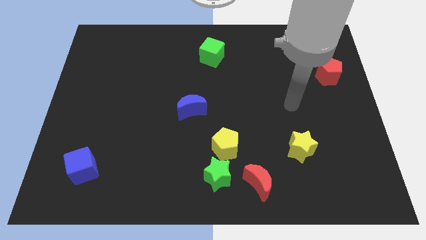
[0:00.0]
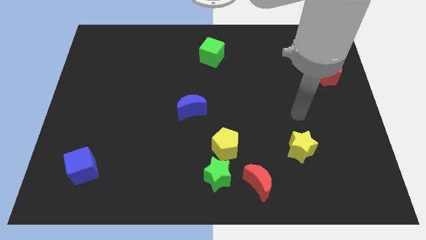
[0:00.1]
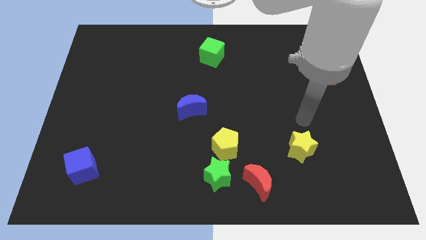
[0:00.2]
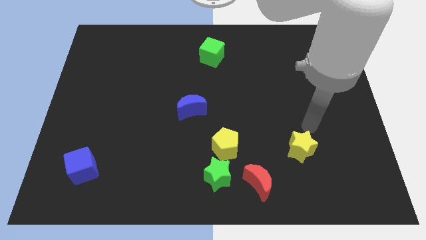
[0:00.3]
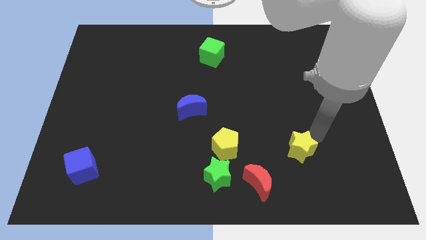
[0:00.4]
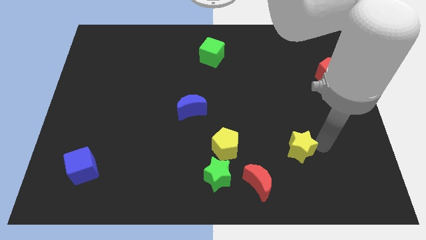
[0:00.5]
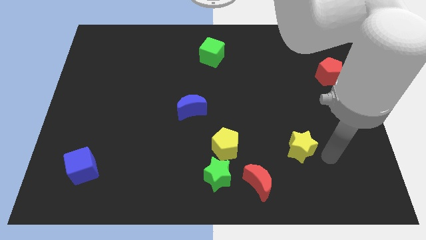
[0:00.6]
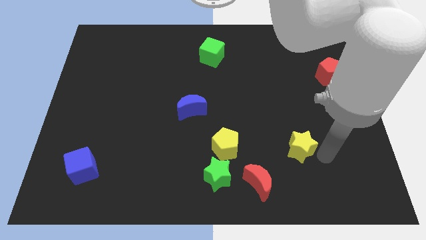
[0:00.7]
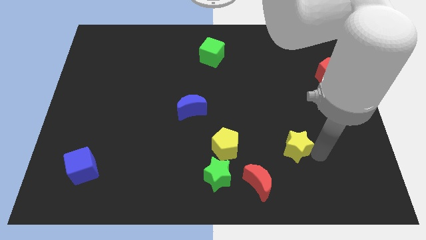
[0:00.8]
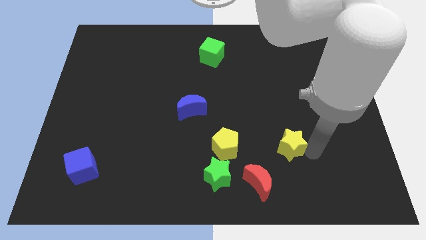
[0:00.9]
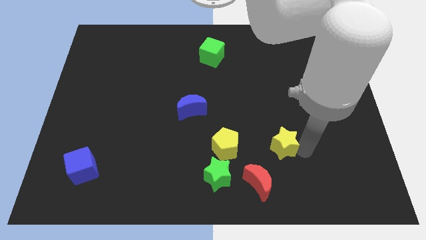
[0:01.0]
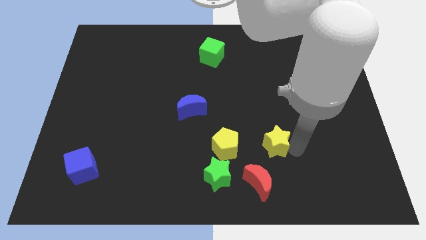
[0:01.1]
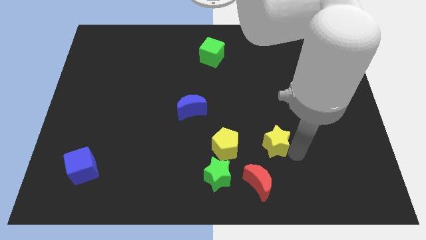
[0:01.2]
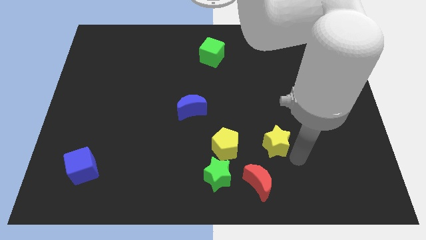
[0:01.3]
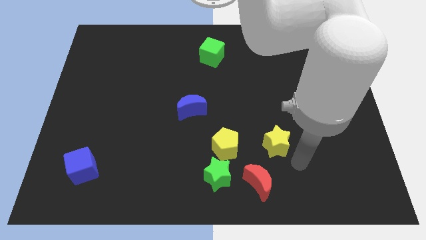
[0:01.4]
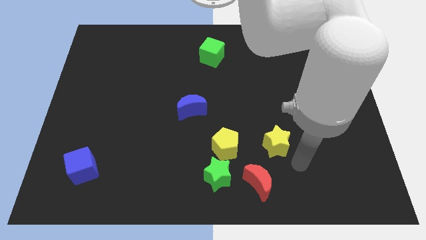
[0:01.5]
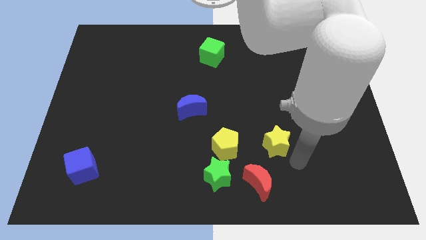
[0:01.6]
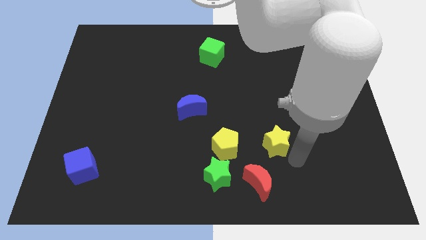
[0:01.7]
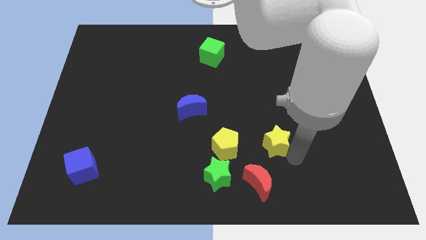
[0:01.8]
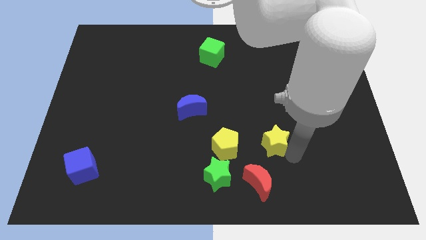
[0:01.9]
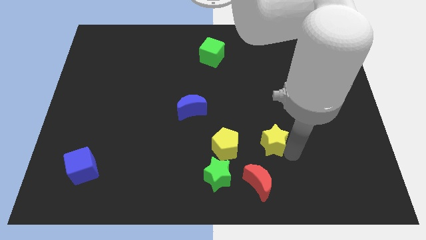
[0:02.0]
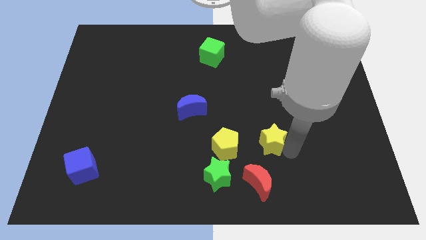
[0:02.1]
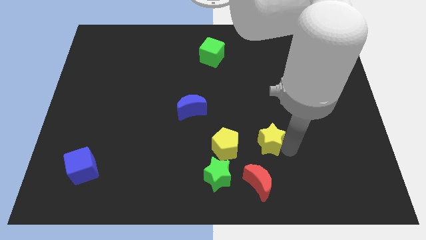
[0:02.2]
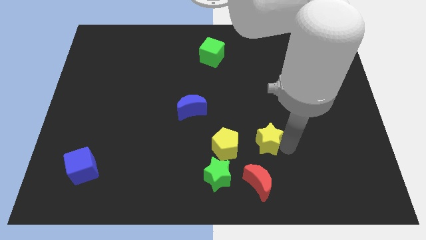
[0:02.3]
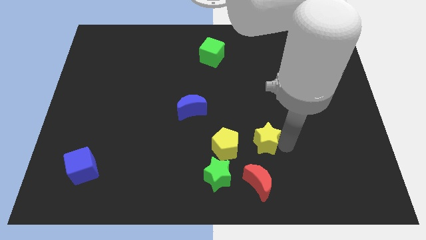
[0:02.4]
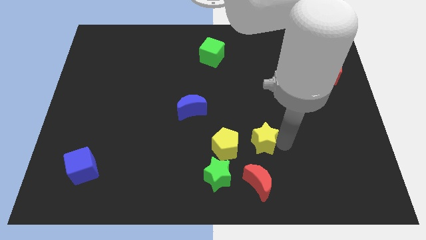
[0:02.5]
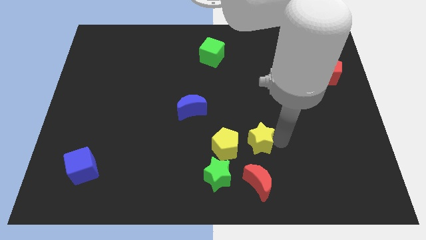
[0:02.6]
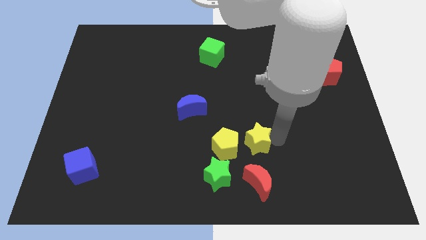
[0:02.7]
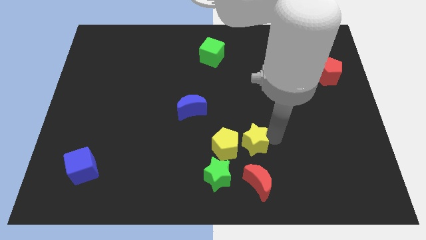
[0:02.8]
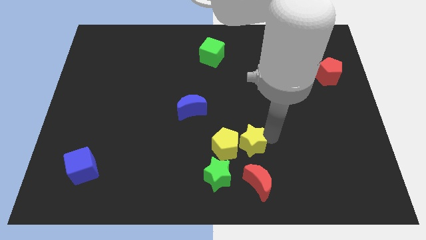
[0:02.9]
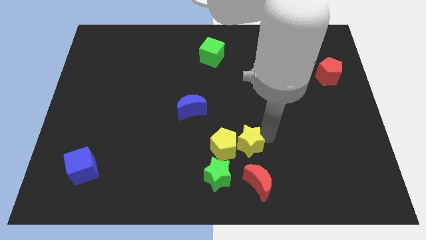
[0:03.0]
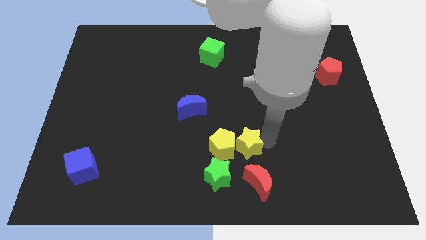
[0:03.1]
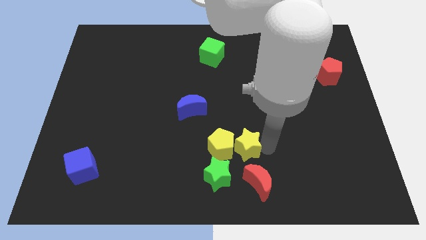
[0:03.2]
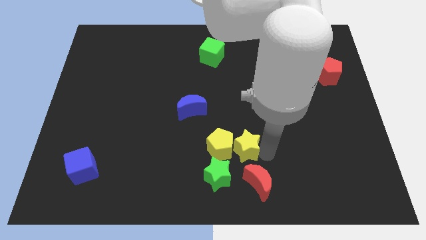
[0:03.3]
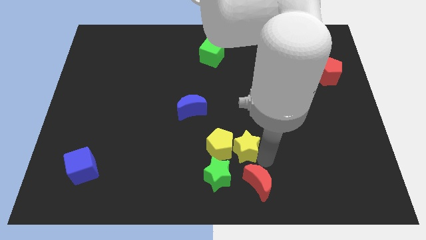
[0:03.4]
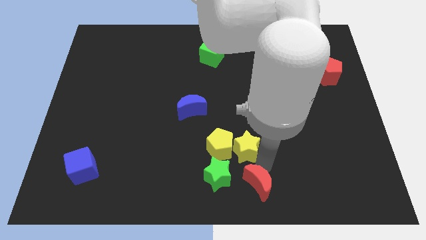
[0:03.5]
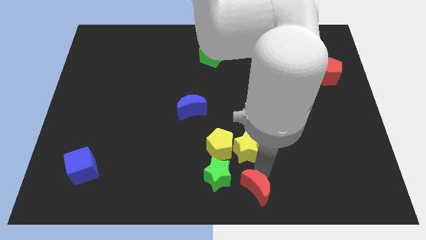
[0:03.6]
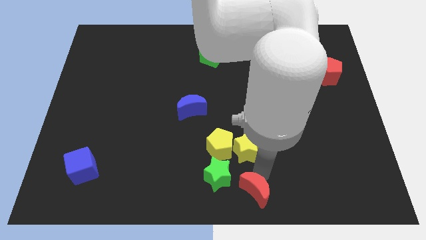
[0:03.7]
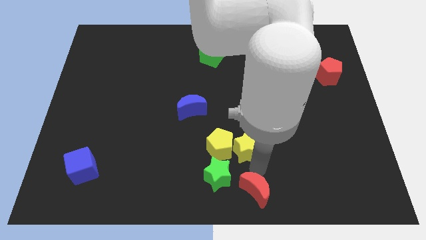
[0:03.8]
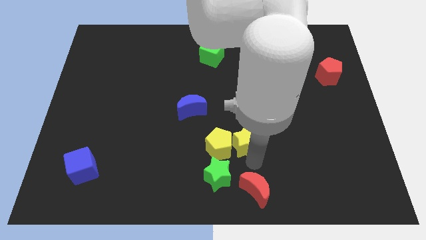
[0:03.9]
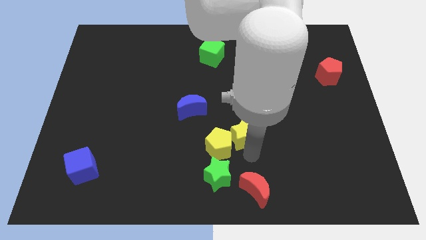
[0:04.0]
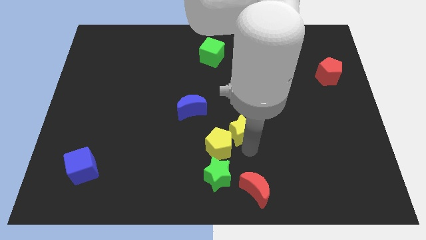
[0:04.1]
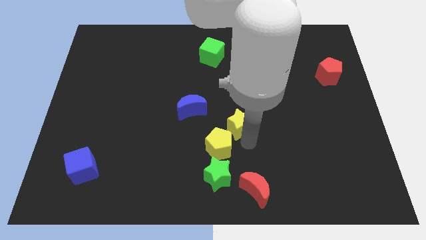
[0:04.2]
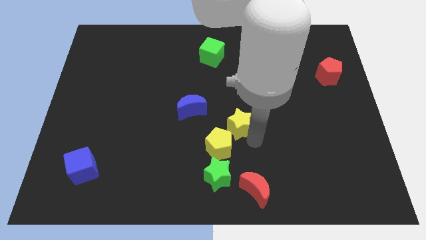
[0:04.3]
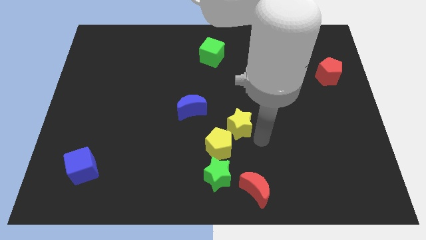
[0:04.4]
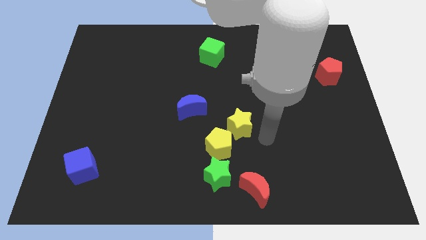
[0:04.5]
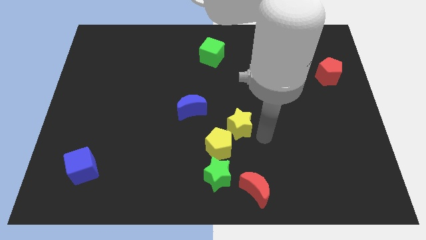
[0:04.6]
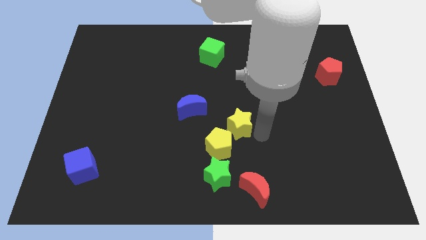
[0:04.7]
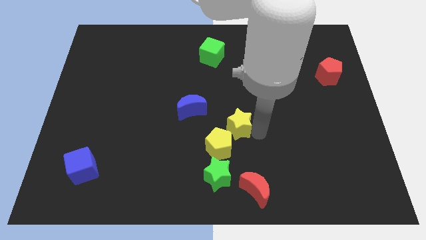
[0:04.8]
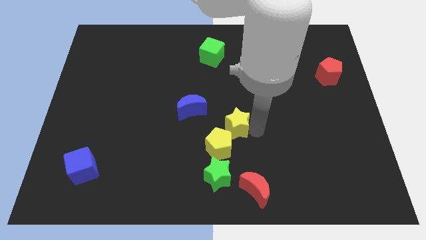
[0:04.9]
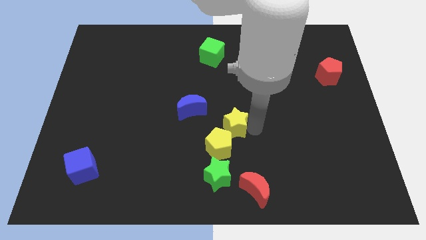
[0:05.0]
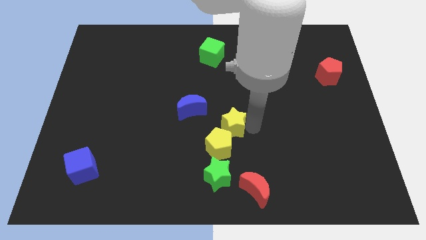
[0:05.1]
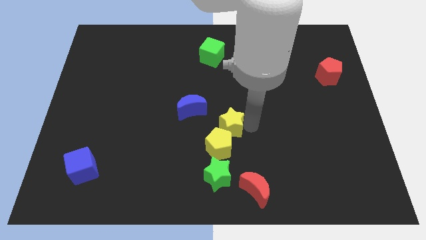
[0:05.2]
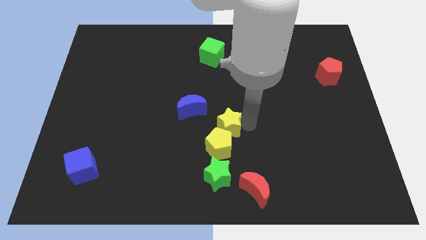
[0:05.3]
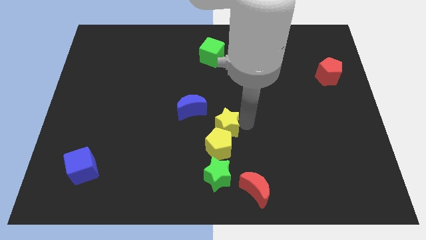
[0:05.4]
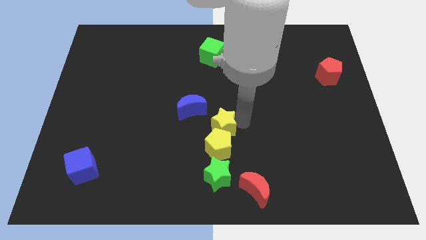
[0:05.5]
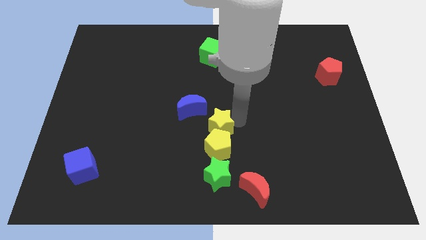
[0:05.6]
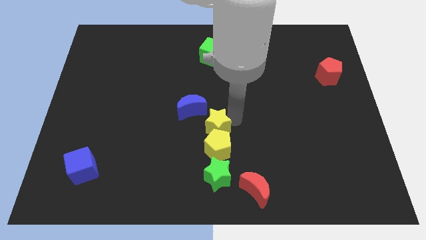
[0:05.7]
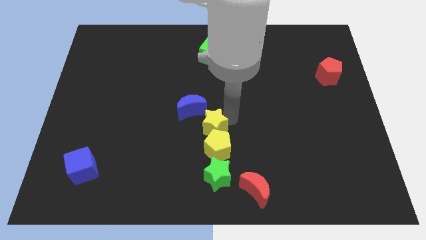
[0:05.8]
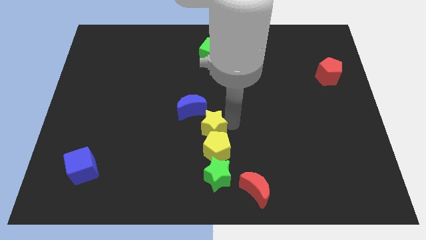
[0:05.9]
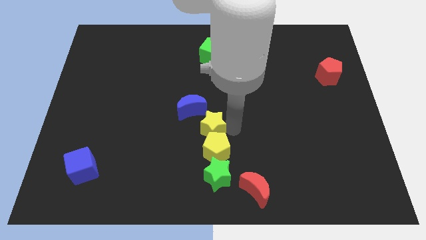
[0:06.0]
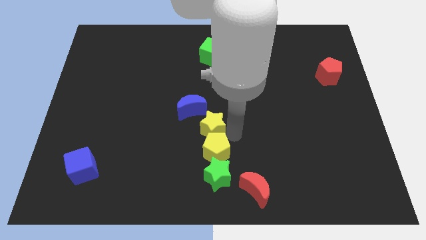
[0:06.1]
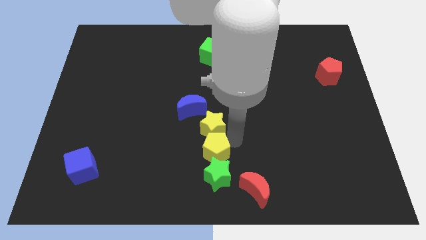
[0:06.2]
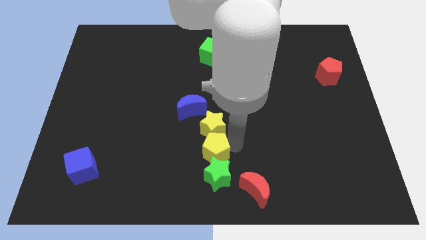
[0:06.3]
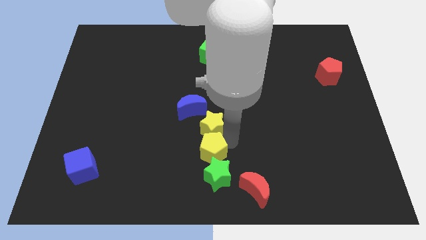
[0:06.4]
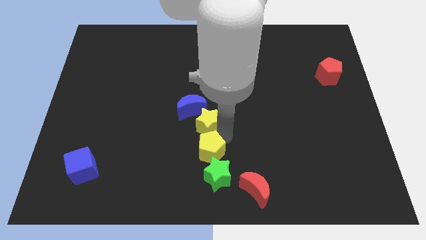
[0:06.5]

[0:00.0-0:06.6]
push the yellow star close to the blue moon

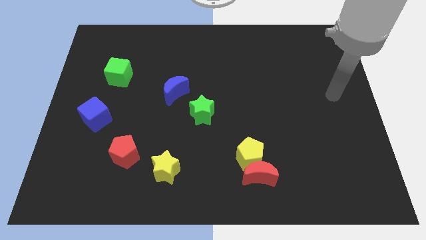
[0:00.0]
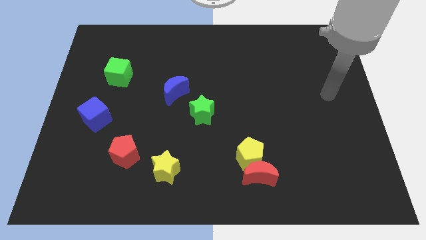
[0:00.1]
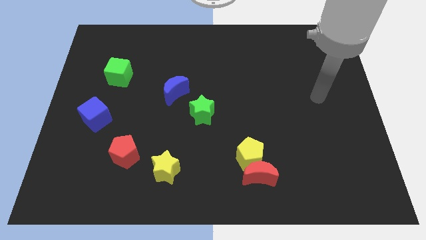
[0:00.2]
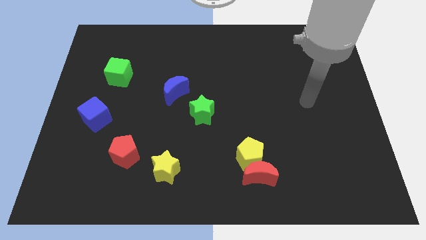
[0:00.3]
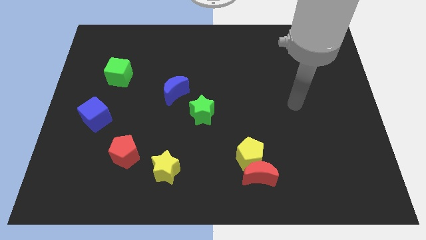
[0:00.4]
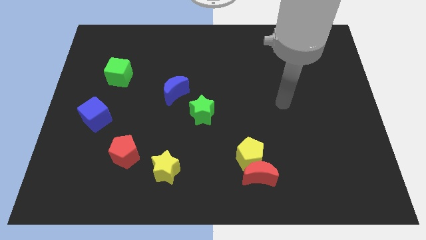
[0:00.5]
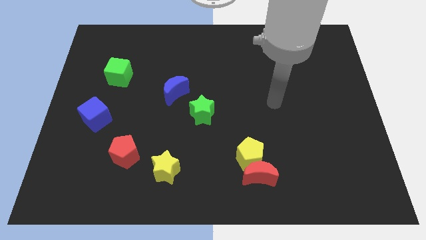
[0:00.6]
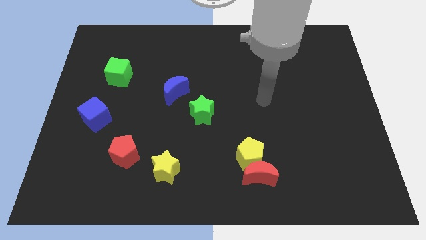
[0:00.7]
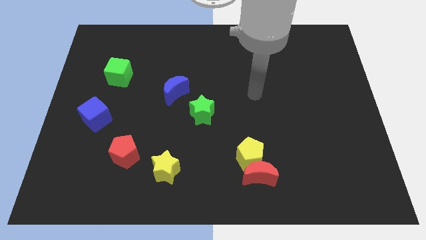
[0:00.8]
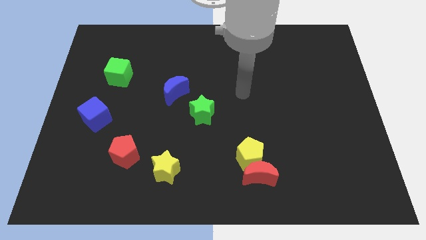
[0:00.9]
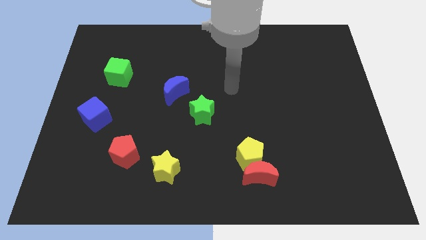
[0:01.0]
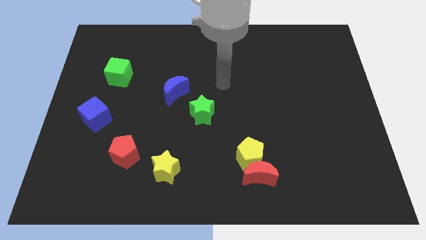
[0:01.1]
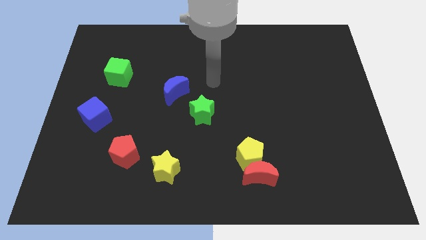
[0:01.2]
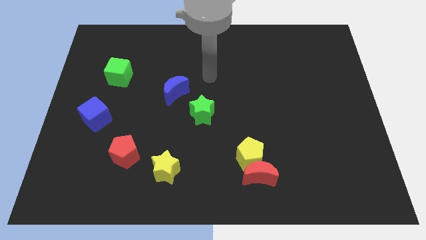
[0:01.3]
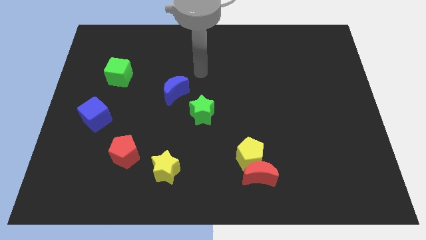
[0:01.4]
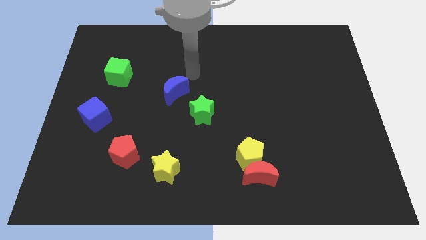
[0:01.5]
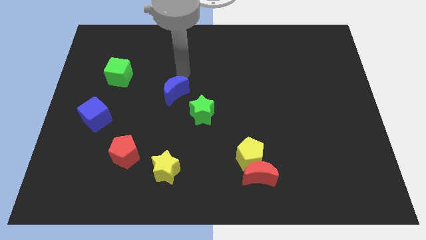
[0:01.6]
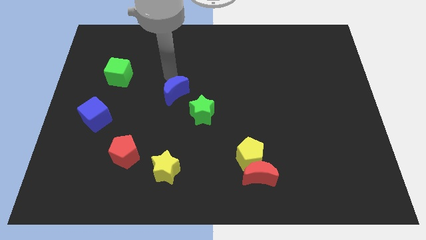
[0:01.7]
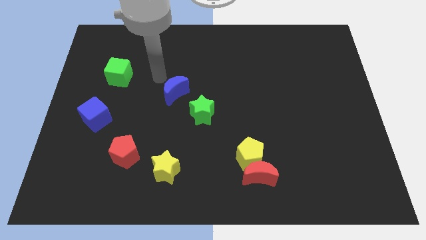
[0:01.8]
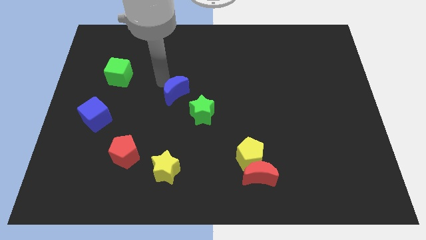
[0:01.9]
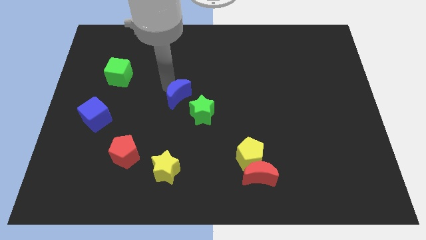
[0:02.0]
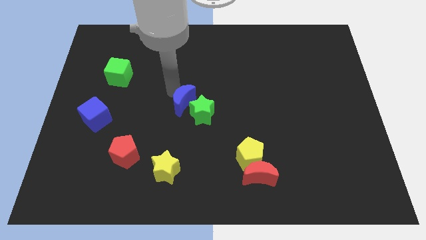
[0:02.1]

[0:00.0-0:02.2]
move the blue moon next to the green star
